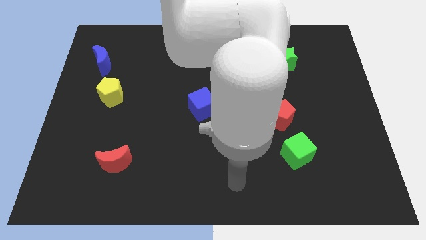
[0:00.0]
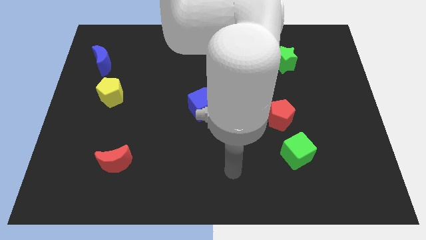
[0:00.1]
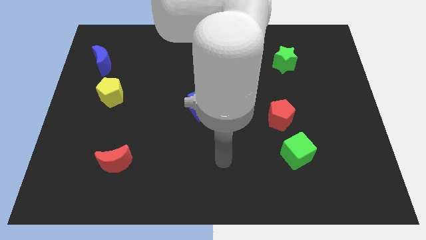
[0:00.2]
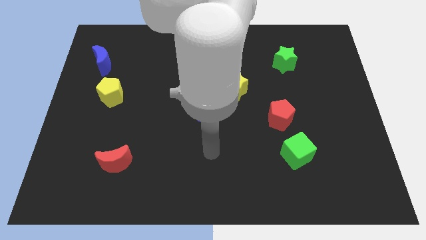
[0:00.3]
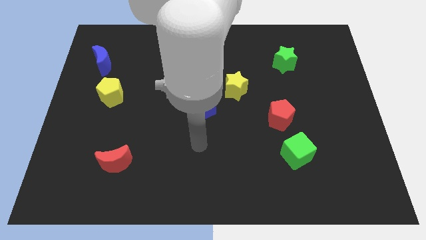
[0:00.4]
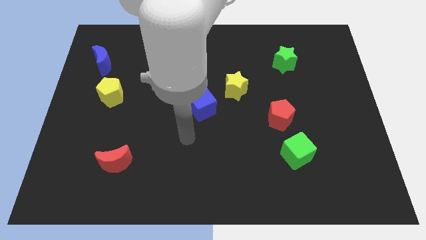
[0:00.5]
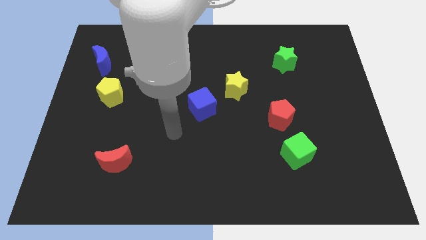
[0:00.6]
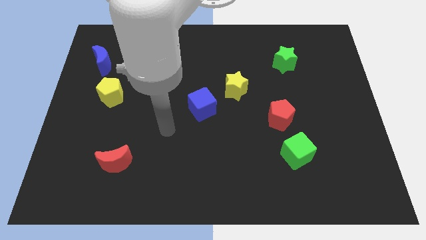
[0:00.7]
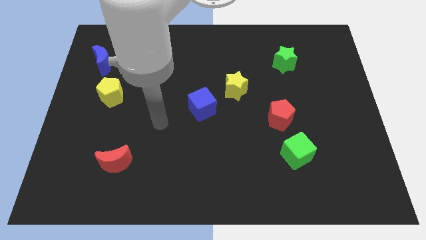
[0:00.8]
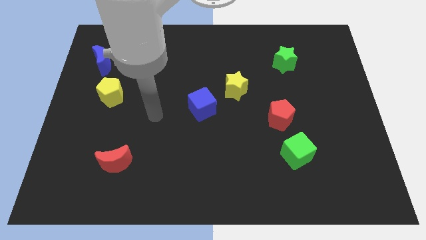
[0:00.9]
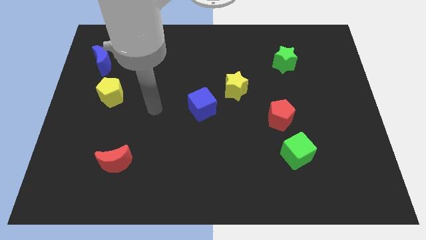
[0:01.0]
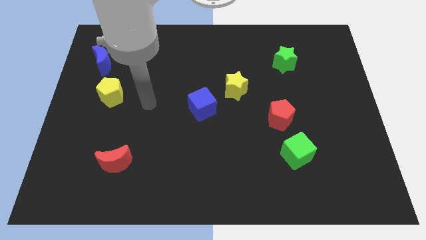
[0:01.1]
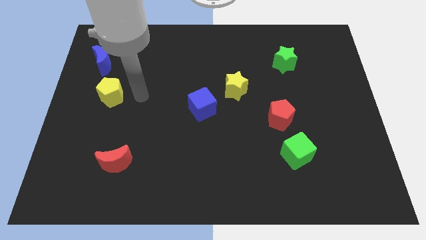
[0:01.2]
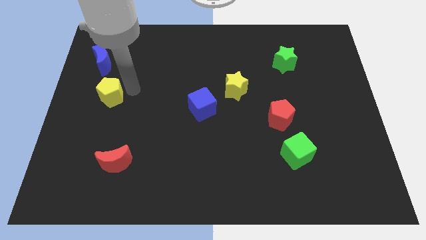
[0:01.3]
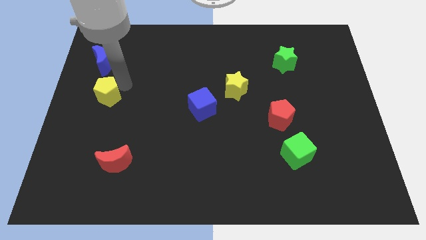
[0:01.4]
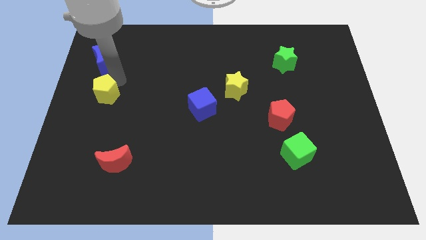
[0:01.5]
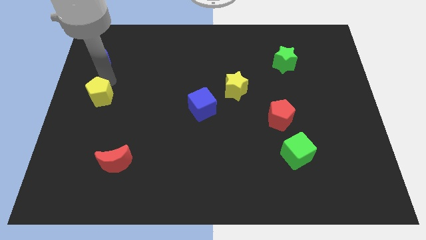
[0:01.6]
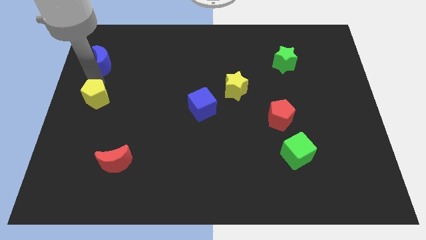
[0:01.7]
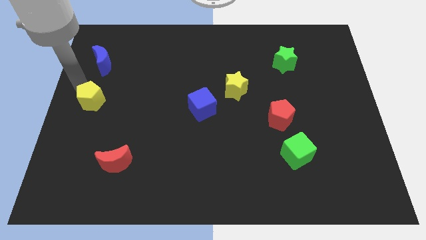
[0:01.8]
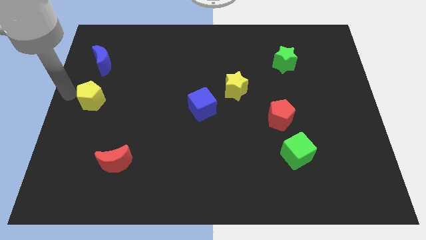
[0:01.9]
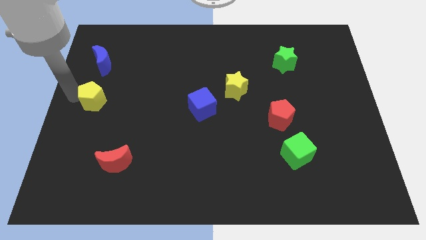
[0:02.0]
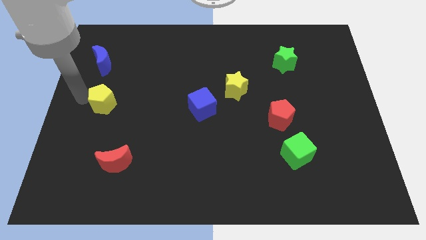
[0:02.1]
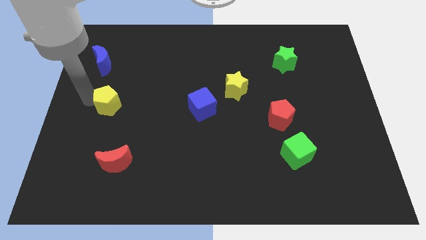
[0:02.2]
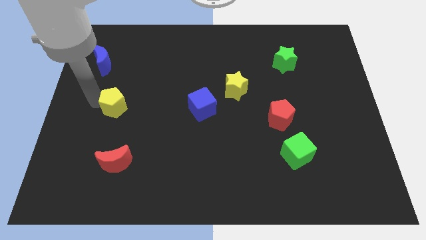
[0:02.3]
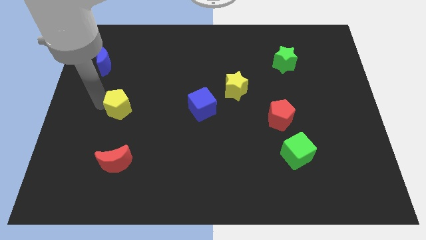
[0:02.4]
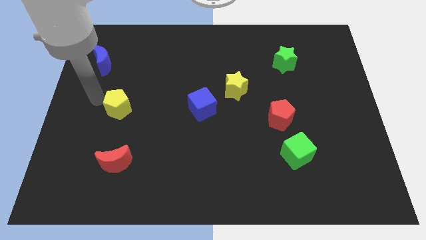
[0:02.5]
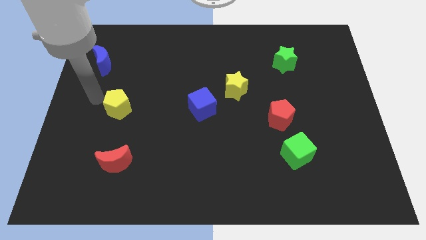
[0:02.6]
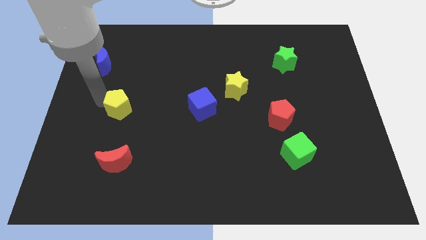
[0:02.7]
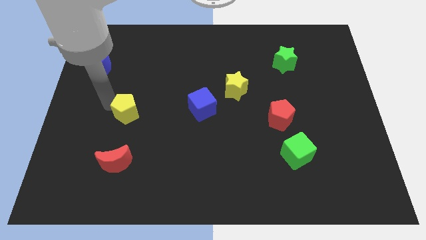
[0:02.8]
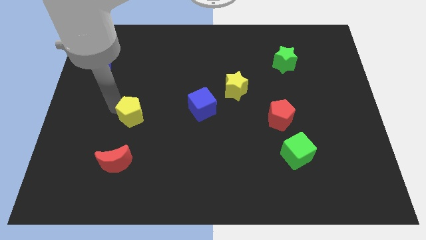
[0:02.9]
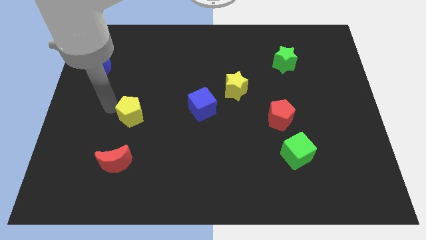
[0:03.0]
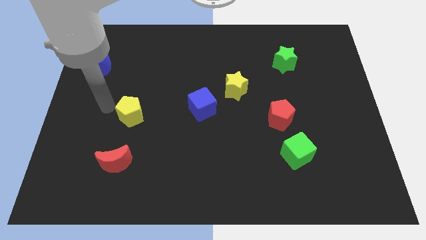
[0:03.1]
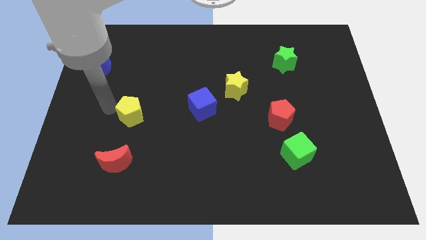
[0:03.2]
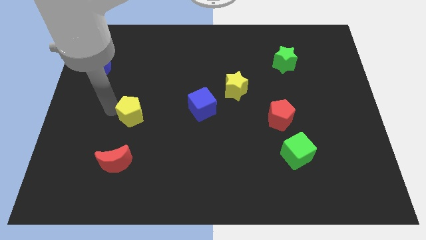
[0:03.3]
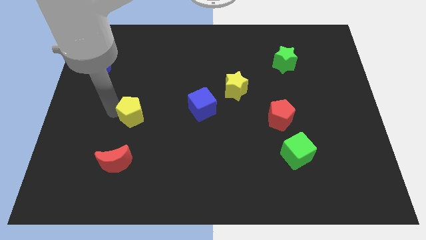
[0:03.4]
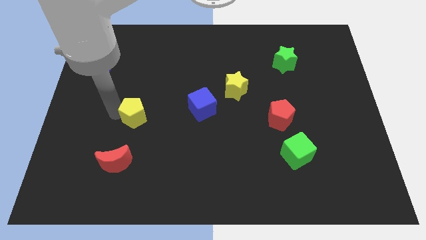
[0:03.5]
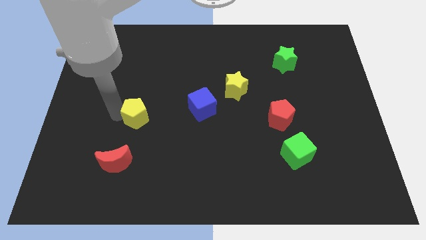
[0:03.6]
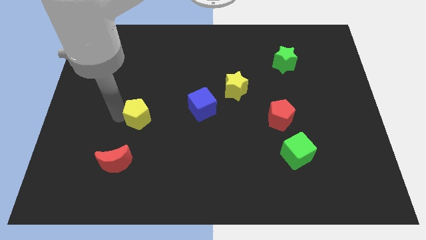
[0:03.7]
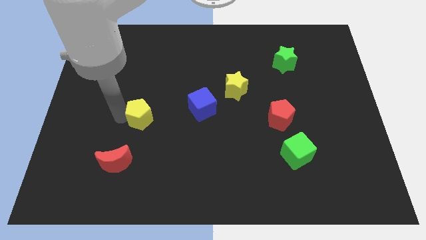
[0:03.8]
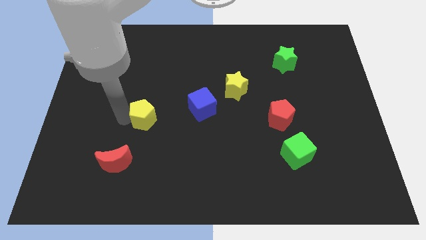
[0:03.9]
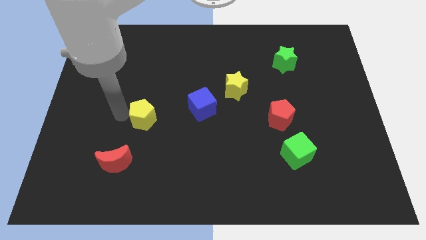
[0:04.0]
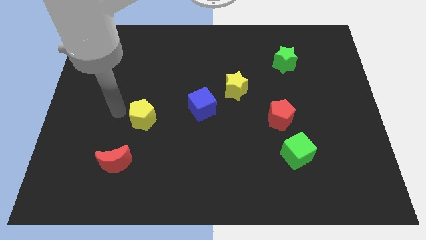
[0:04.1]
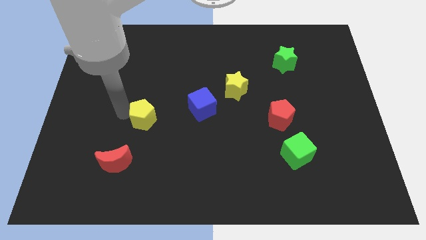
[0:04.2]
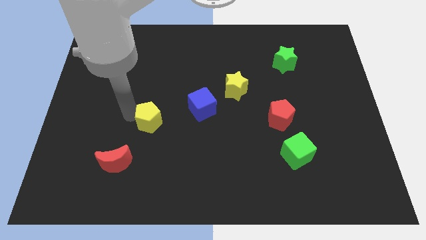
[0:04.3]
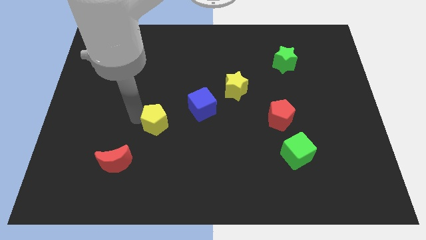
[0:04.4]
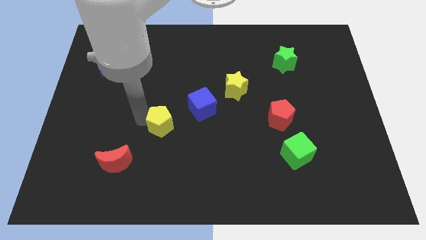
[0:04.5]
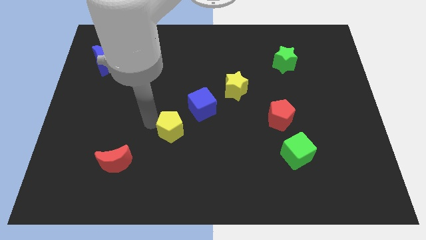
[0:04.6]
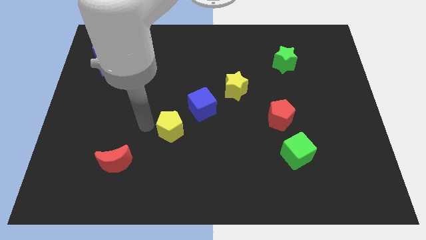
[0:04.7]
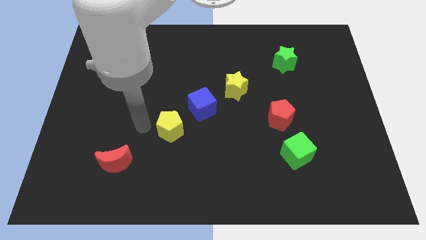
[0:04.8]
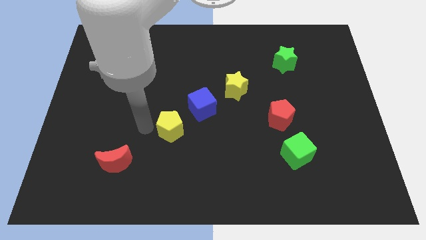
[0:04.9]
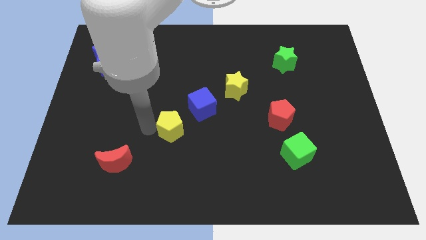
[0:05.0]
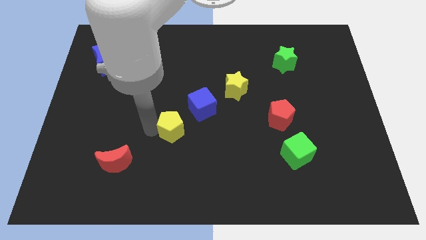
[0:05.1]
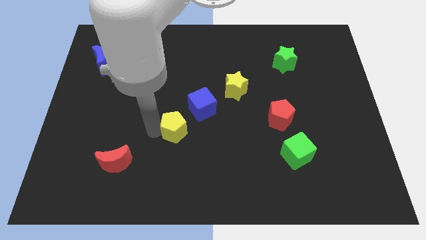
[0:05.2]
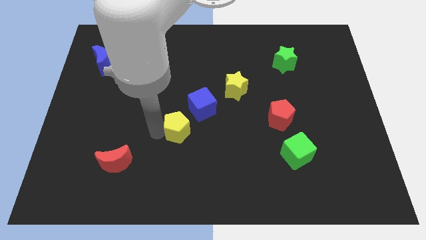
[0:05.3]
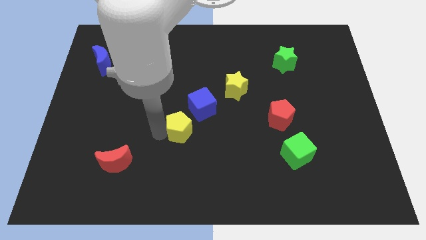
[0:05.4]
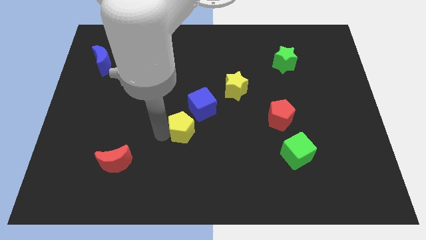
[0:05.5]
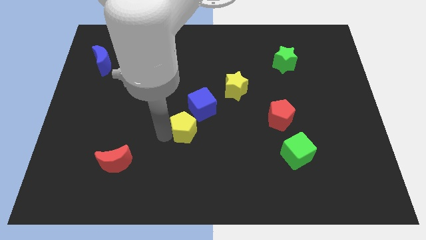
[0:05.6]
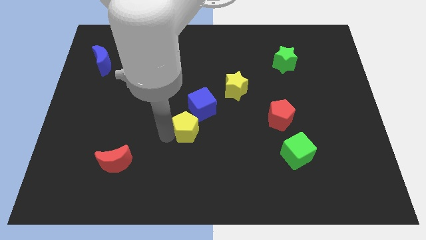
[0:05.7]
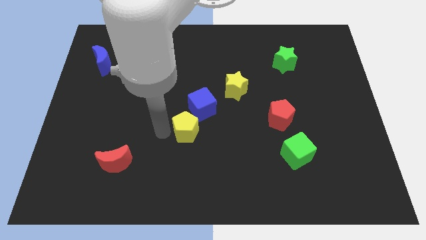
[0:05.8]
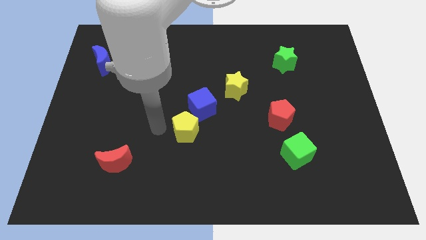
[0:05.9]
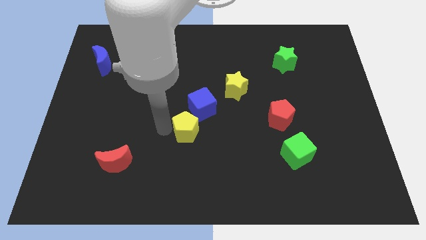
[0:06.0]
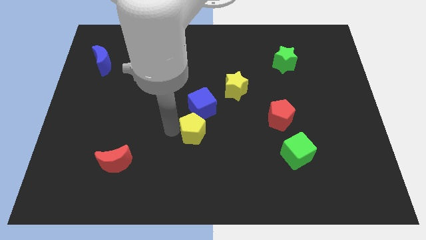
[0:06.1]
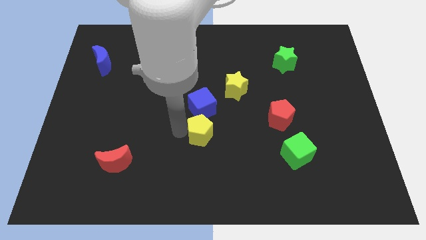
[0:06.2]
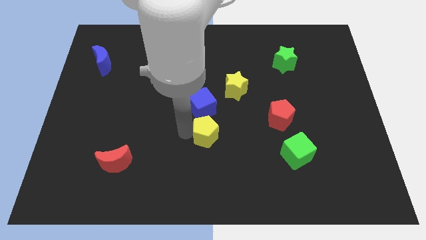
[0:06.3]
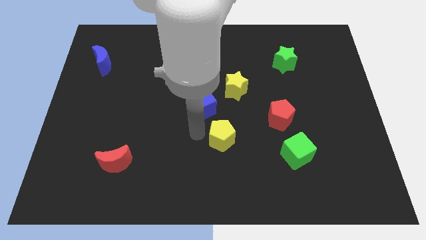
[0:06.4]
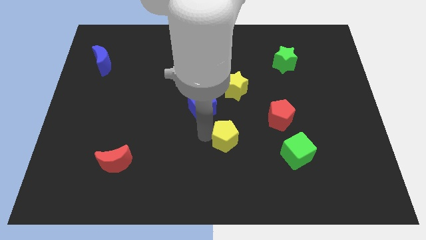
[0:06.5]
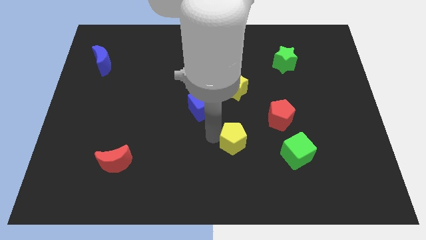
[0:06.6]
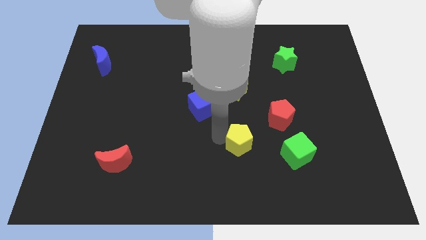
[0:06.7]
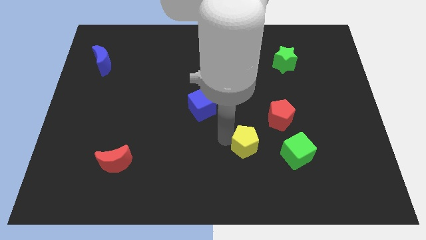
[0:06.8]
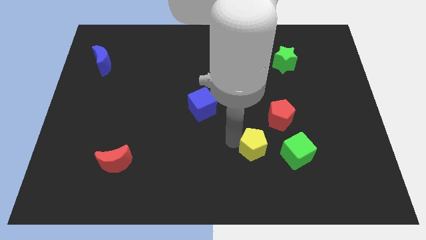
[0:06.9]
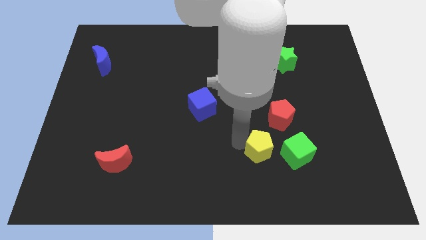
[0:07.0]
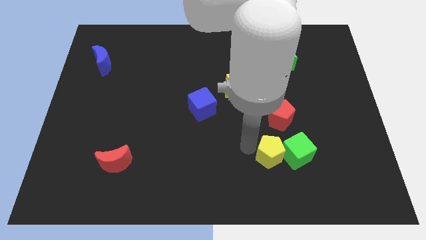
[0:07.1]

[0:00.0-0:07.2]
push the yellow pentagon close to the green cube
